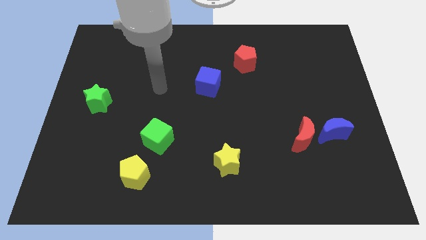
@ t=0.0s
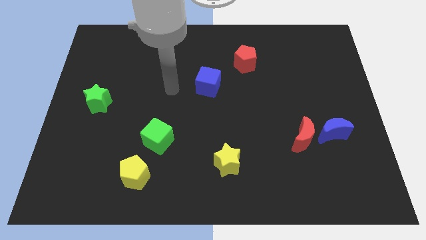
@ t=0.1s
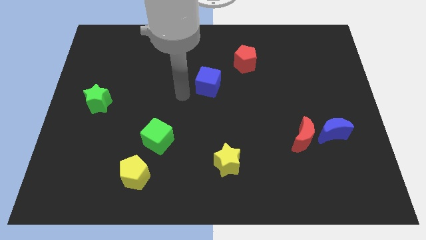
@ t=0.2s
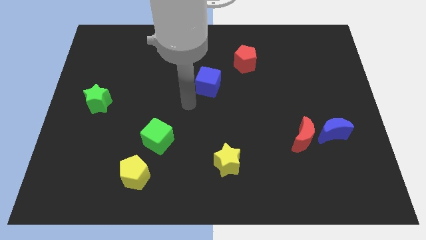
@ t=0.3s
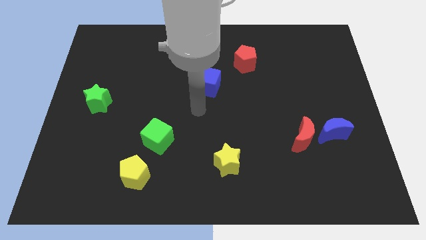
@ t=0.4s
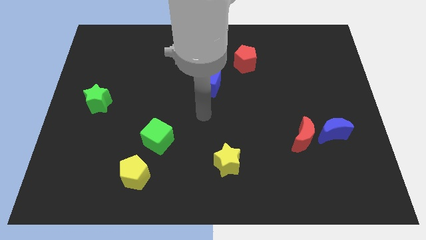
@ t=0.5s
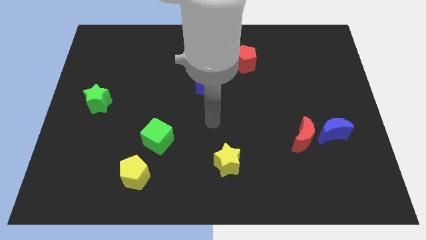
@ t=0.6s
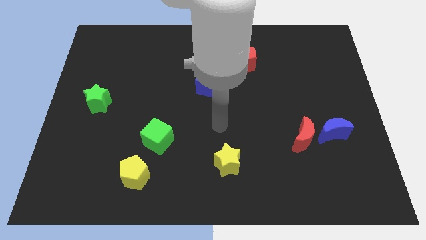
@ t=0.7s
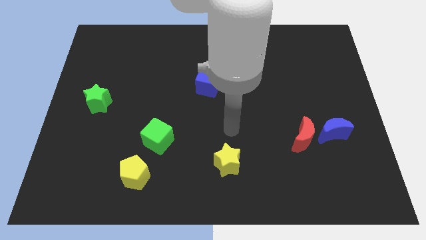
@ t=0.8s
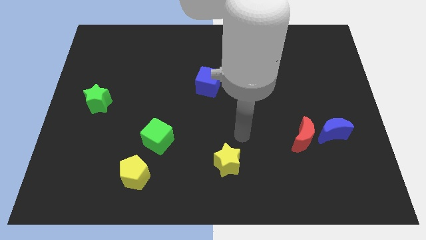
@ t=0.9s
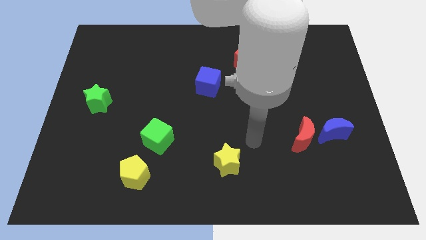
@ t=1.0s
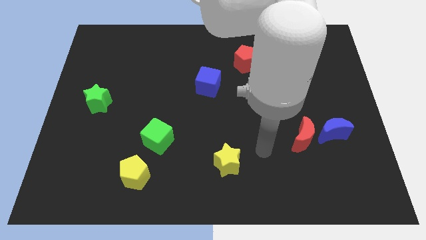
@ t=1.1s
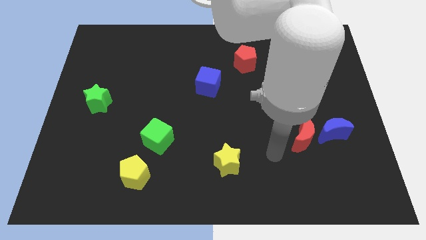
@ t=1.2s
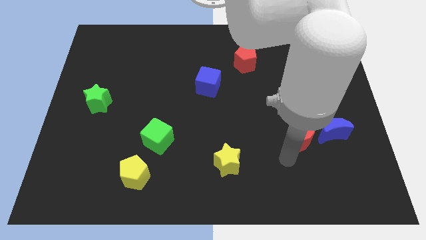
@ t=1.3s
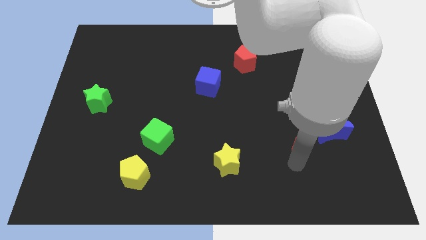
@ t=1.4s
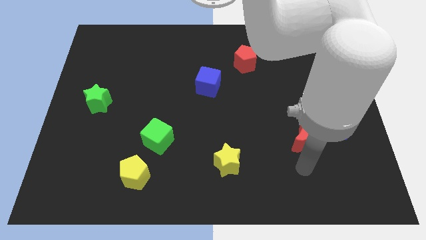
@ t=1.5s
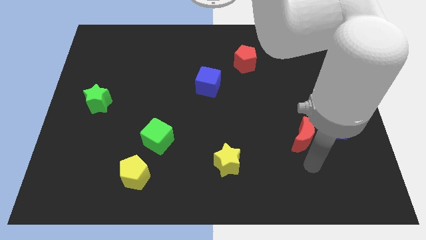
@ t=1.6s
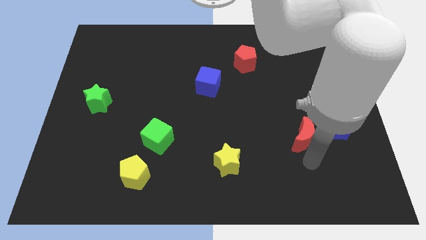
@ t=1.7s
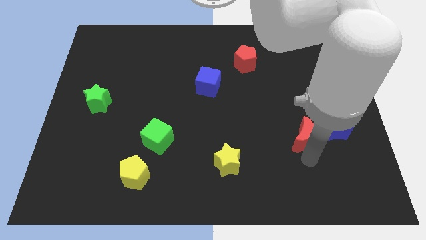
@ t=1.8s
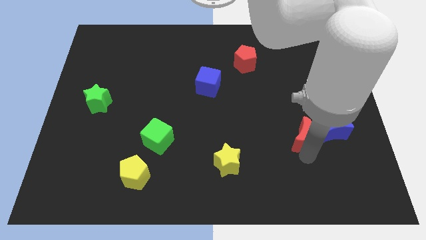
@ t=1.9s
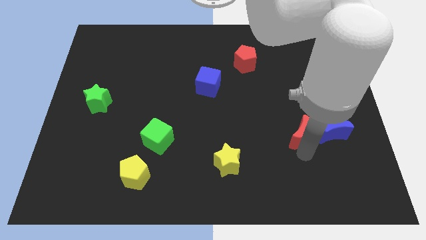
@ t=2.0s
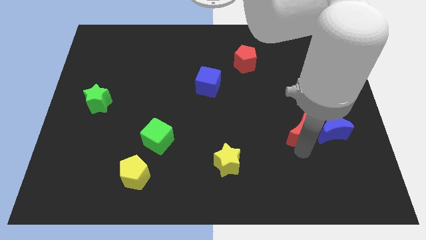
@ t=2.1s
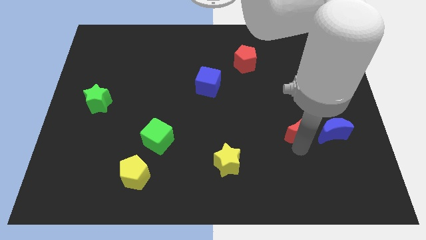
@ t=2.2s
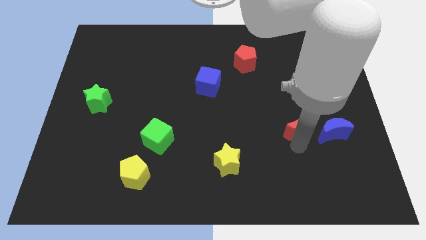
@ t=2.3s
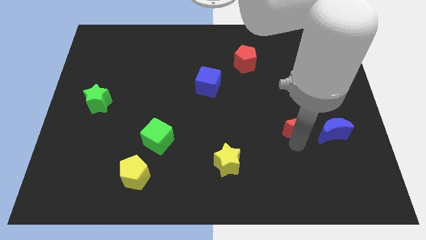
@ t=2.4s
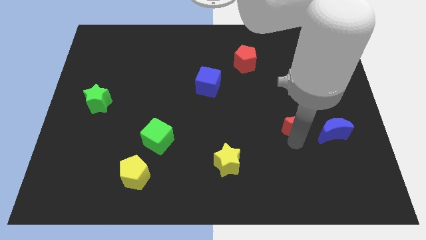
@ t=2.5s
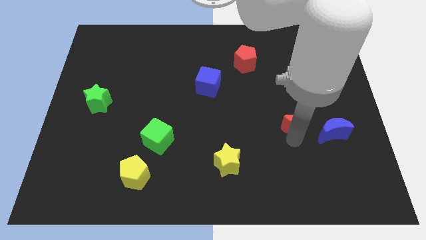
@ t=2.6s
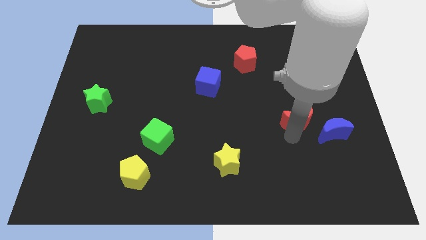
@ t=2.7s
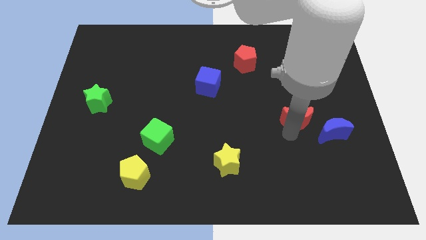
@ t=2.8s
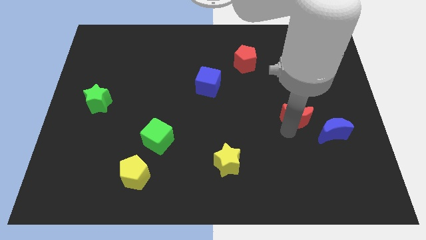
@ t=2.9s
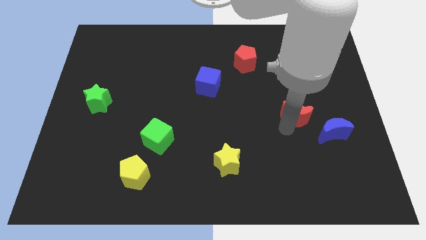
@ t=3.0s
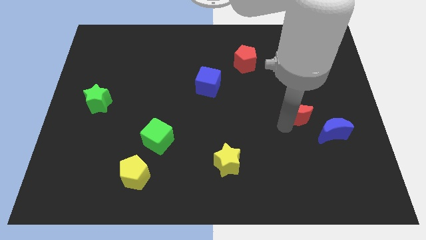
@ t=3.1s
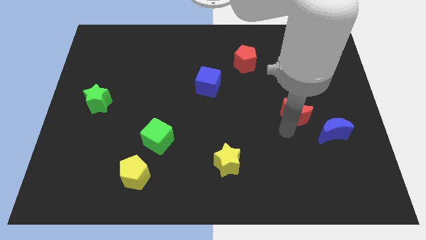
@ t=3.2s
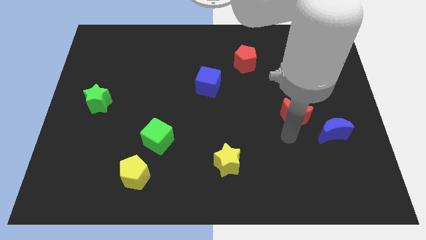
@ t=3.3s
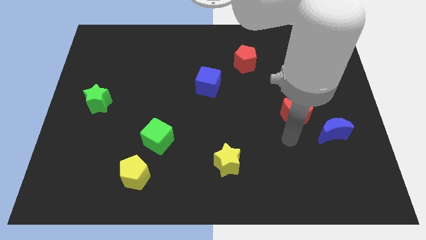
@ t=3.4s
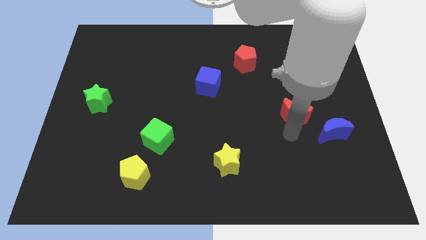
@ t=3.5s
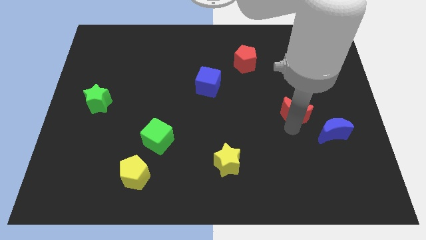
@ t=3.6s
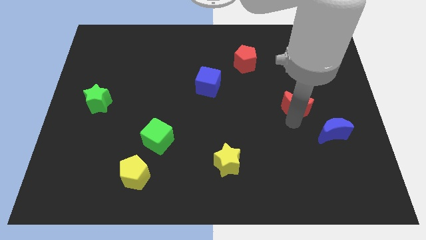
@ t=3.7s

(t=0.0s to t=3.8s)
slightly push the red moon upwards

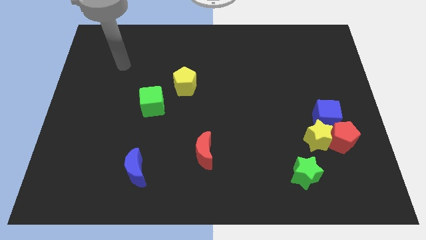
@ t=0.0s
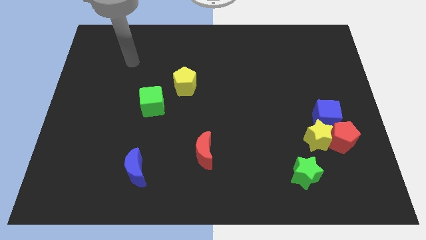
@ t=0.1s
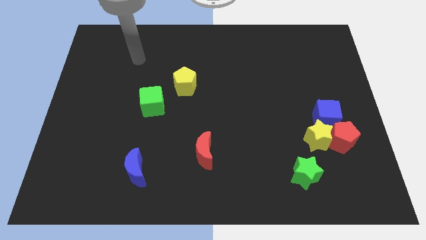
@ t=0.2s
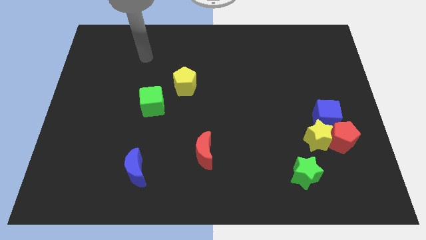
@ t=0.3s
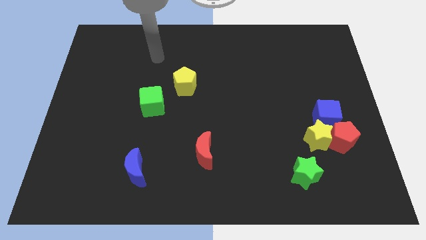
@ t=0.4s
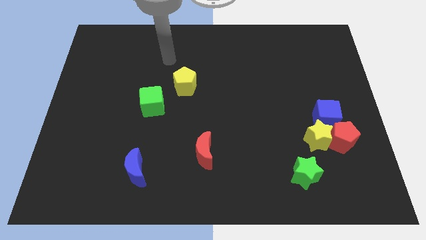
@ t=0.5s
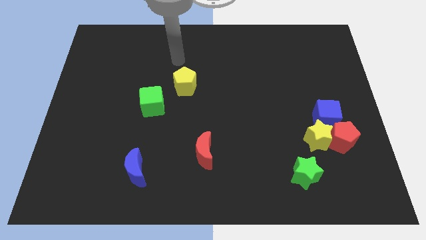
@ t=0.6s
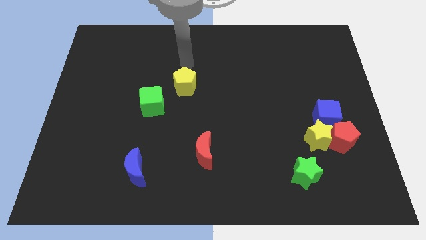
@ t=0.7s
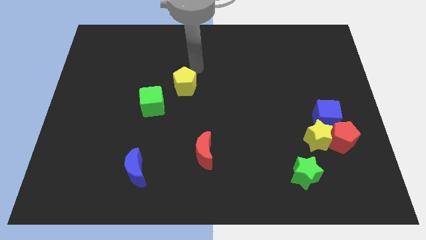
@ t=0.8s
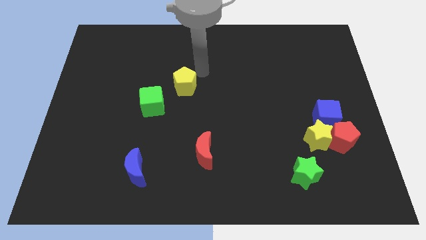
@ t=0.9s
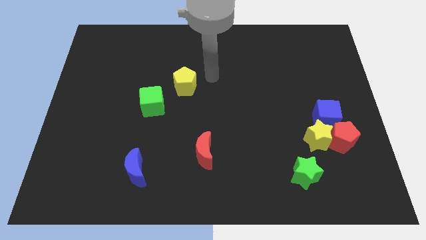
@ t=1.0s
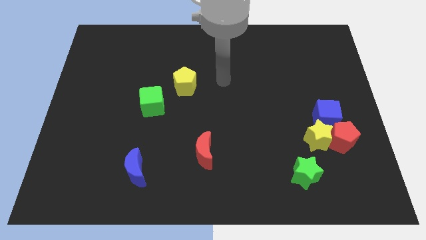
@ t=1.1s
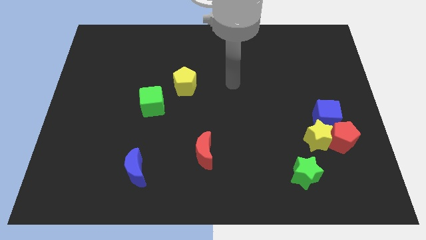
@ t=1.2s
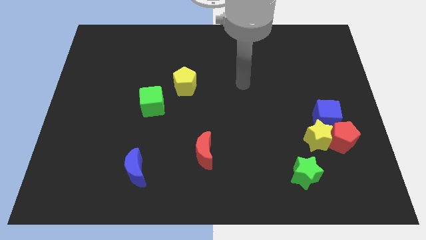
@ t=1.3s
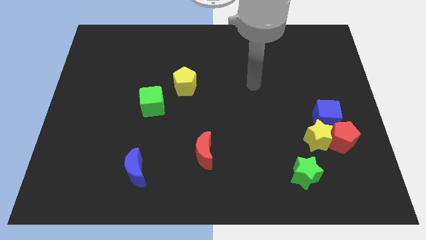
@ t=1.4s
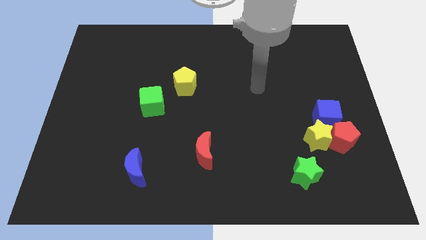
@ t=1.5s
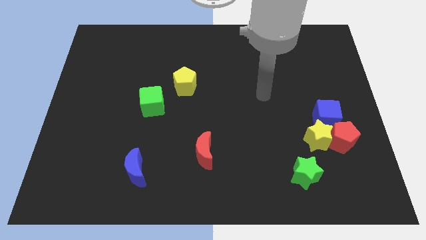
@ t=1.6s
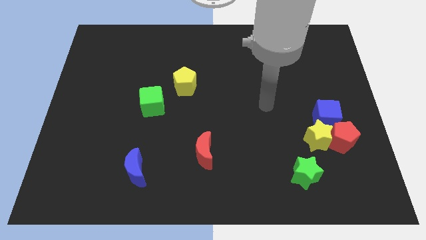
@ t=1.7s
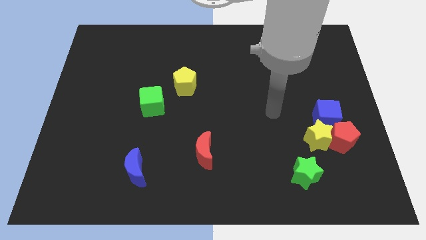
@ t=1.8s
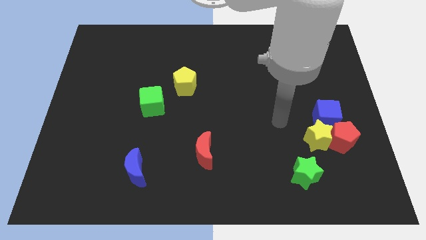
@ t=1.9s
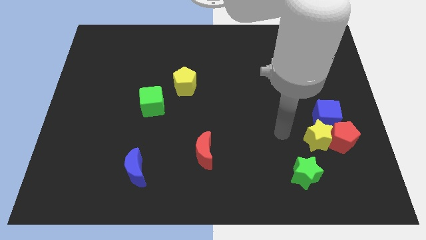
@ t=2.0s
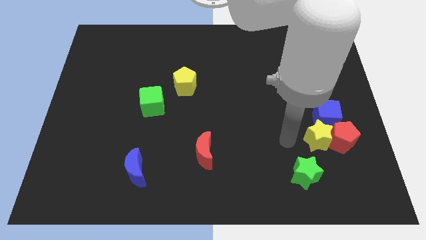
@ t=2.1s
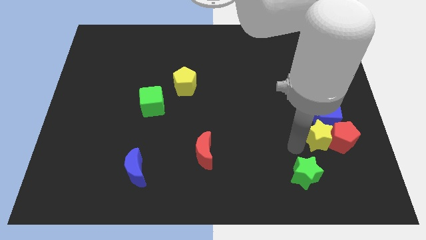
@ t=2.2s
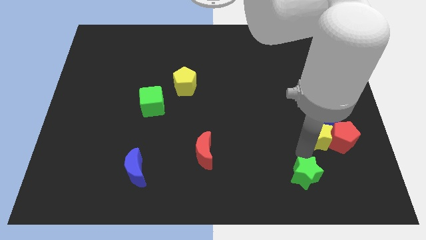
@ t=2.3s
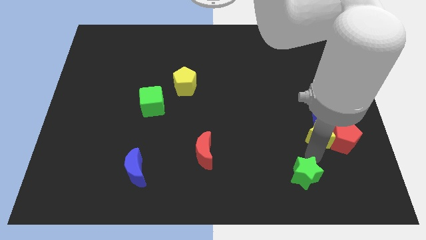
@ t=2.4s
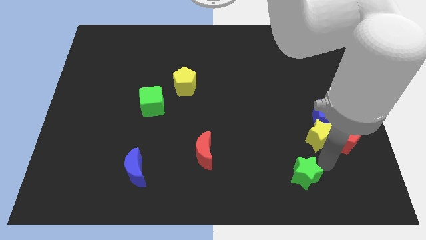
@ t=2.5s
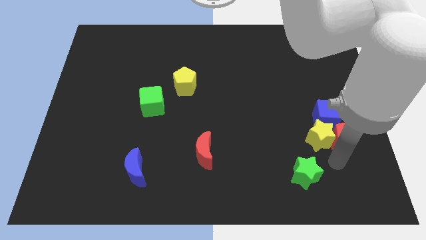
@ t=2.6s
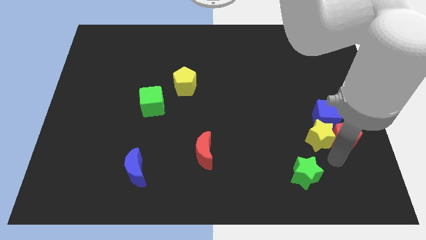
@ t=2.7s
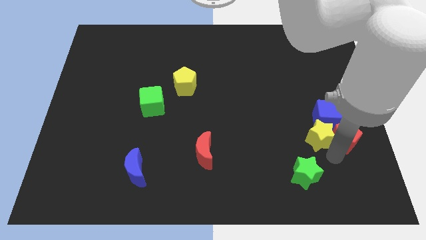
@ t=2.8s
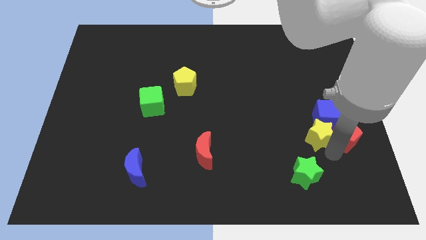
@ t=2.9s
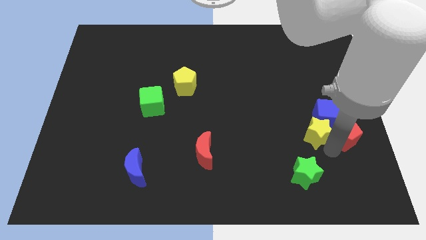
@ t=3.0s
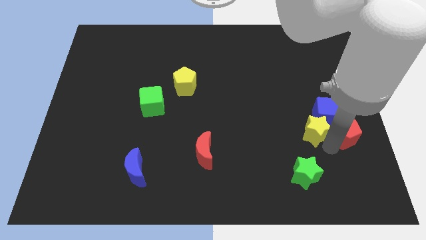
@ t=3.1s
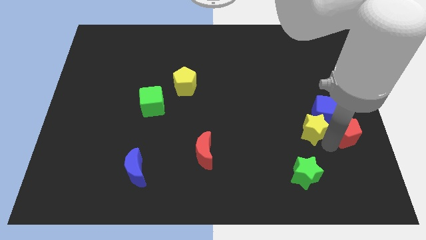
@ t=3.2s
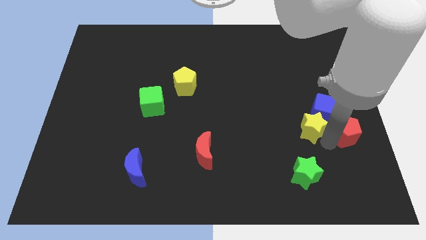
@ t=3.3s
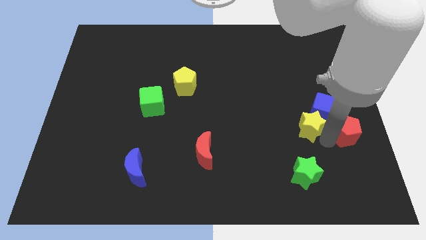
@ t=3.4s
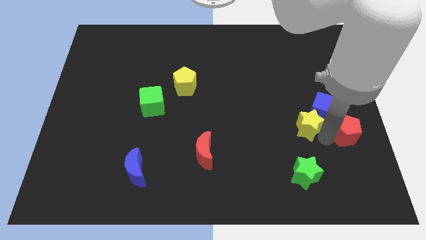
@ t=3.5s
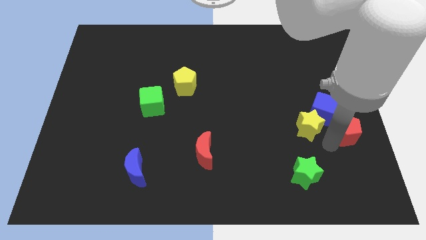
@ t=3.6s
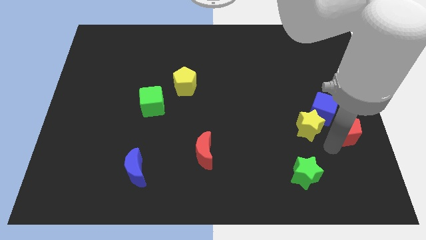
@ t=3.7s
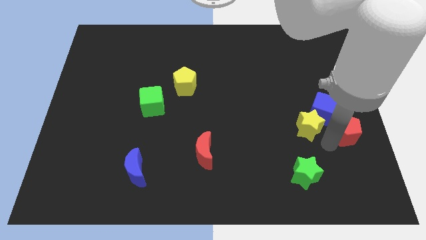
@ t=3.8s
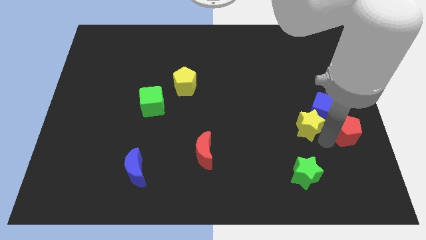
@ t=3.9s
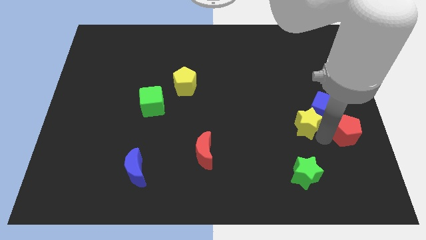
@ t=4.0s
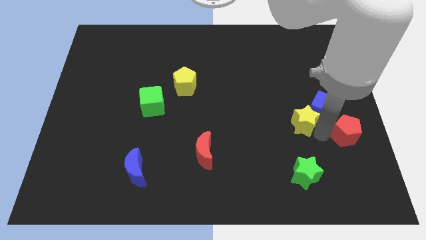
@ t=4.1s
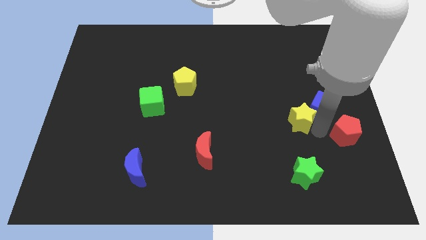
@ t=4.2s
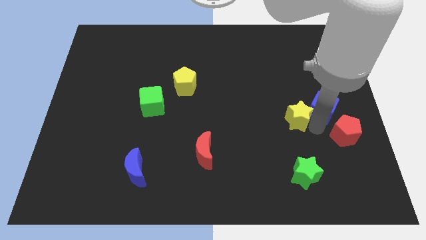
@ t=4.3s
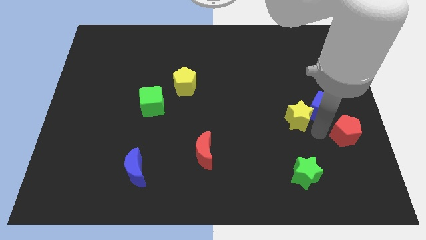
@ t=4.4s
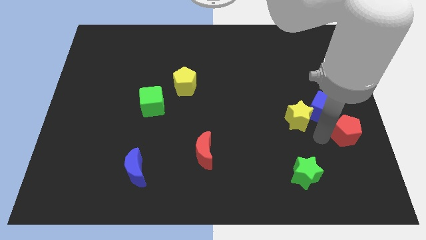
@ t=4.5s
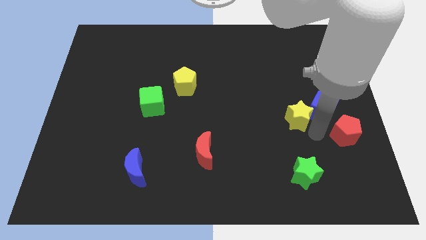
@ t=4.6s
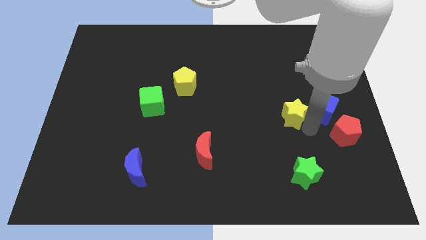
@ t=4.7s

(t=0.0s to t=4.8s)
move the yellow star somewhat diagonally up and left
